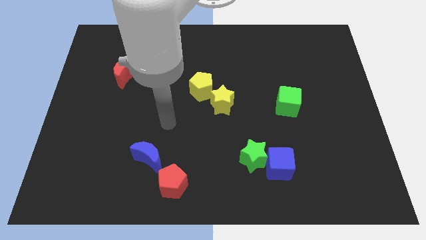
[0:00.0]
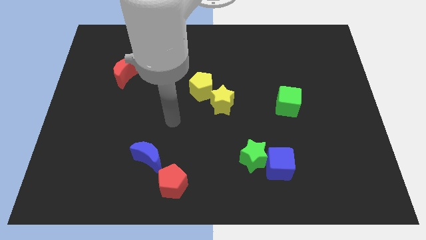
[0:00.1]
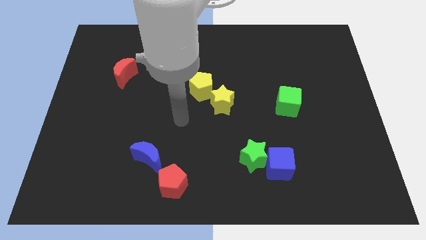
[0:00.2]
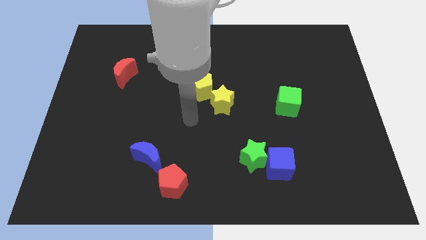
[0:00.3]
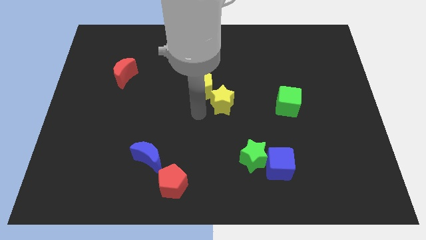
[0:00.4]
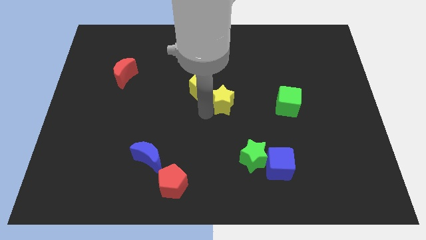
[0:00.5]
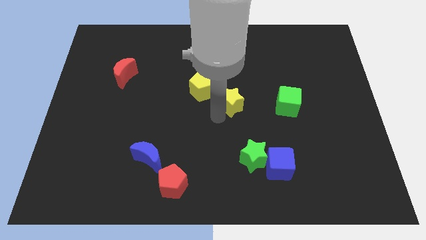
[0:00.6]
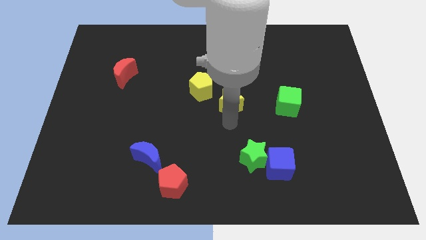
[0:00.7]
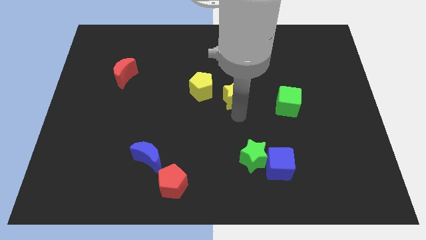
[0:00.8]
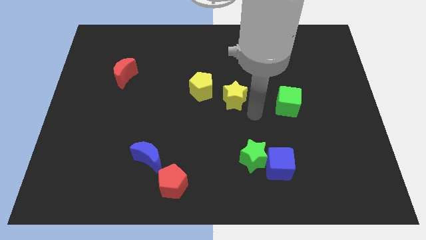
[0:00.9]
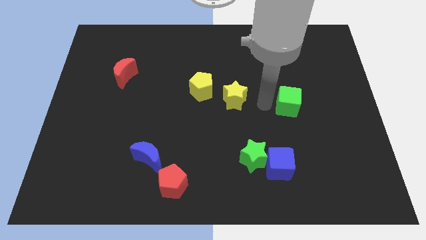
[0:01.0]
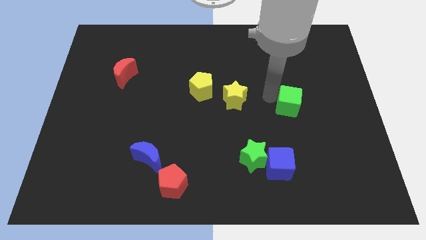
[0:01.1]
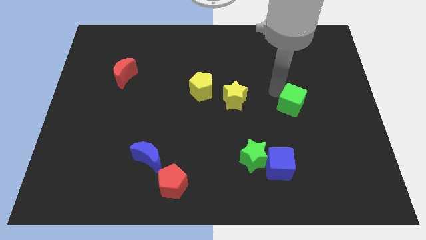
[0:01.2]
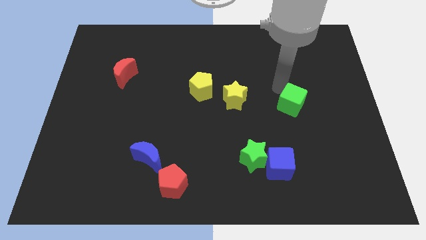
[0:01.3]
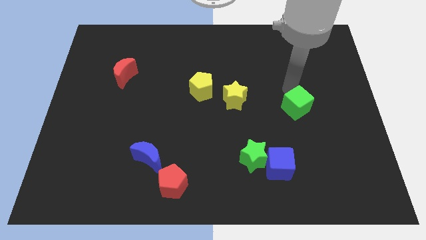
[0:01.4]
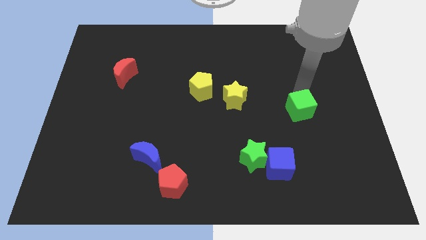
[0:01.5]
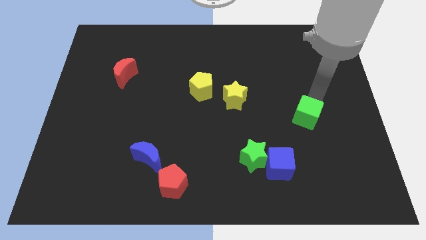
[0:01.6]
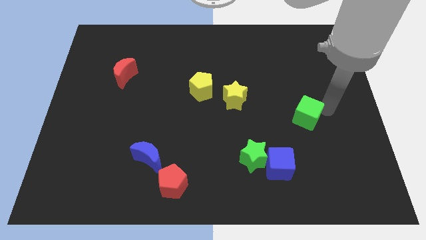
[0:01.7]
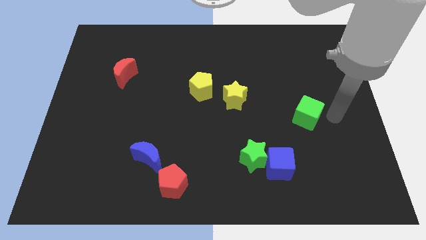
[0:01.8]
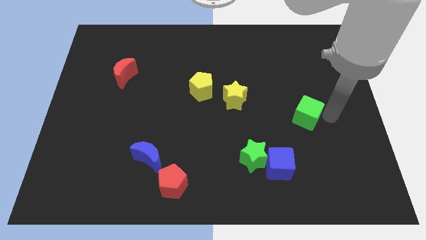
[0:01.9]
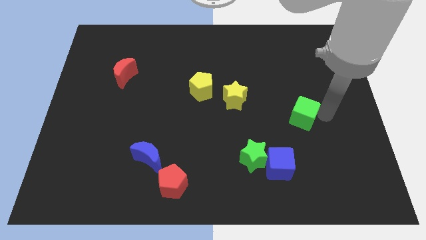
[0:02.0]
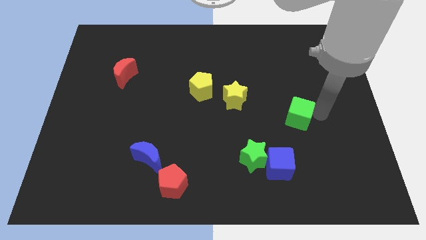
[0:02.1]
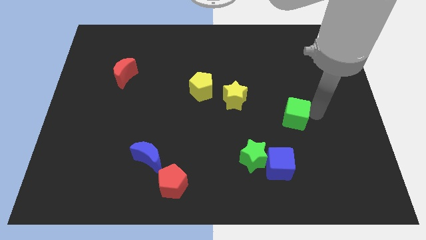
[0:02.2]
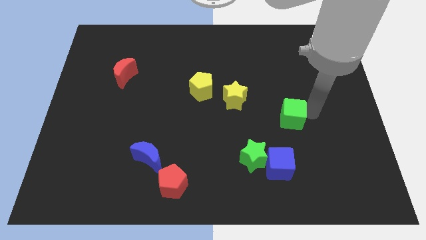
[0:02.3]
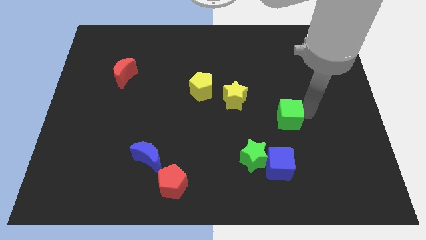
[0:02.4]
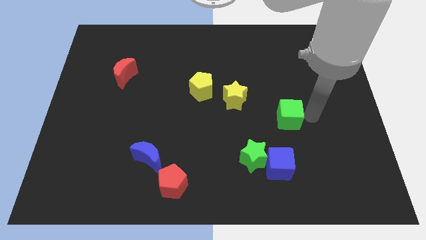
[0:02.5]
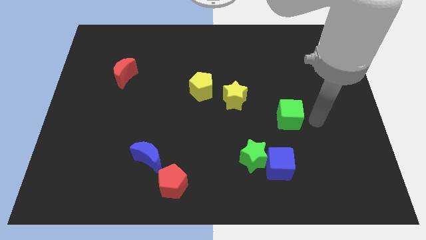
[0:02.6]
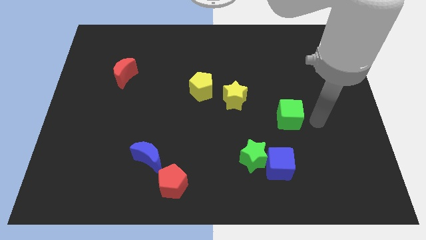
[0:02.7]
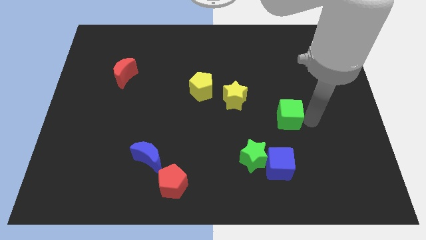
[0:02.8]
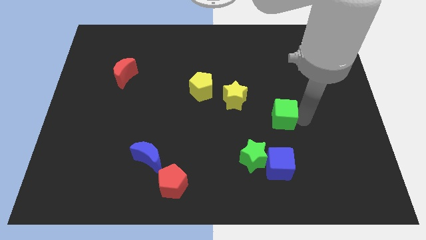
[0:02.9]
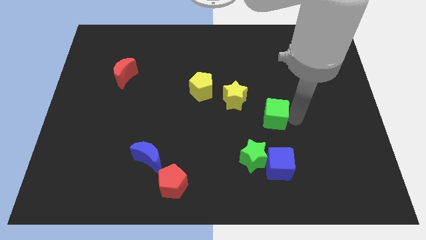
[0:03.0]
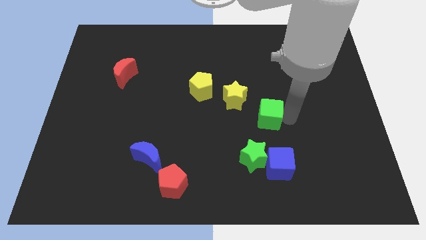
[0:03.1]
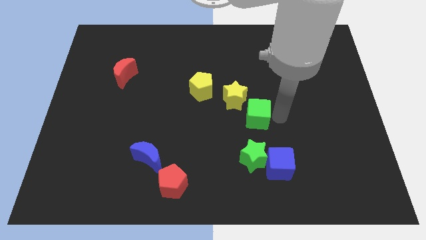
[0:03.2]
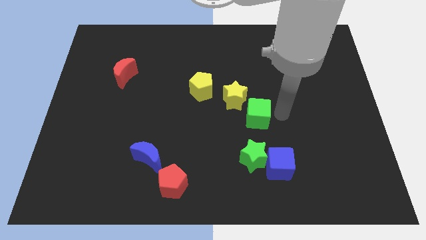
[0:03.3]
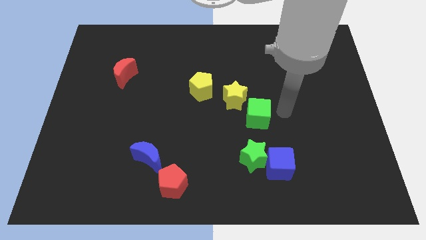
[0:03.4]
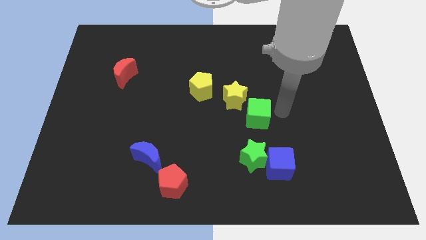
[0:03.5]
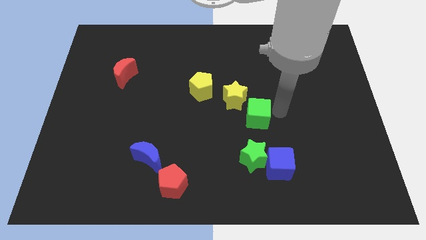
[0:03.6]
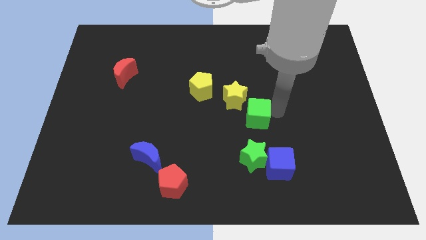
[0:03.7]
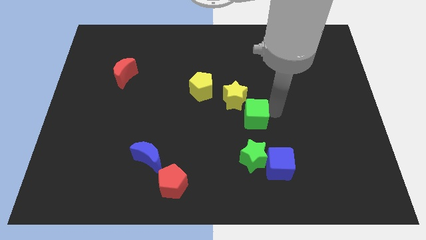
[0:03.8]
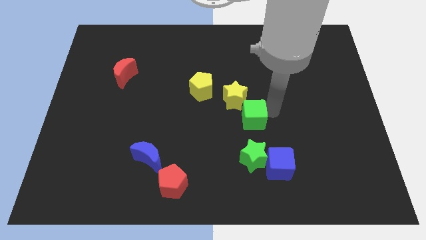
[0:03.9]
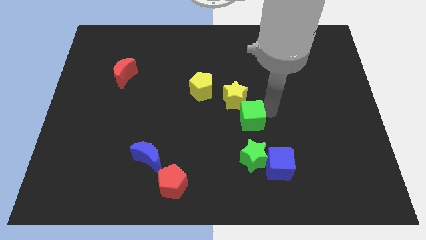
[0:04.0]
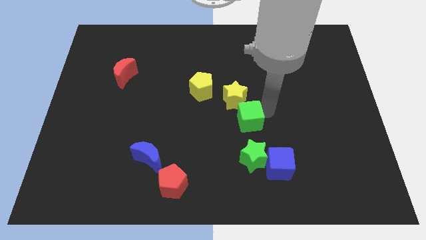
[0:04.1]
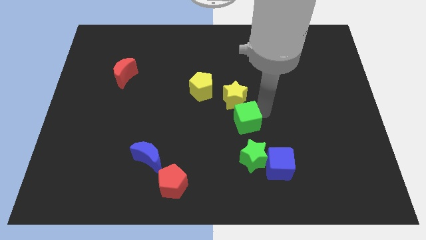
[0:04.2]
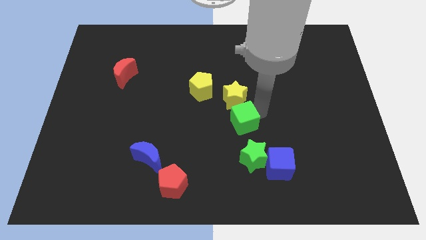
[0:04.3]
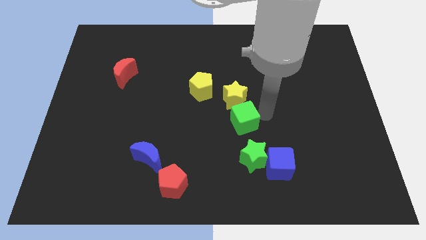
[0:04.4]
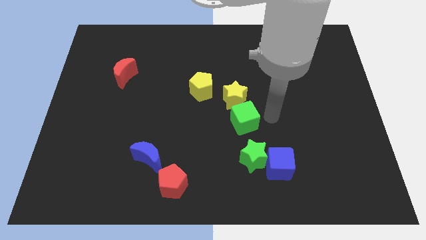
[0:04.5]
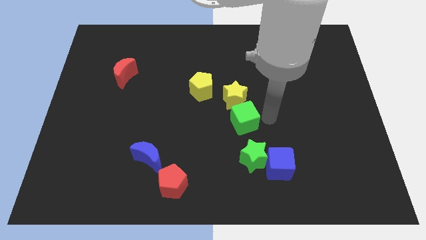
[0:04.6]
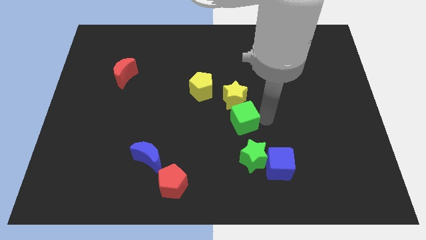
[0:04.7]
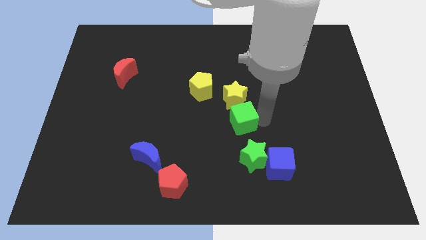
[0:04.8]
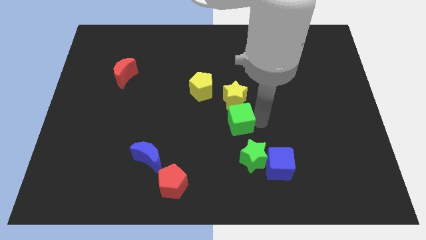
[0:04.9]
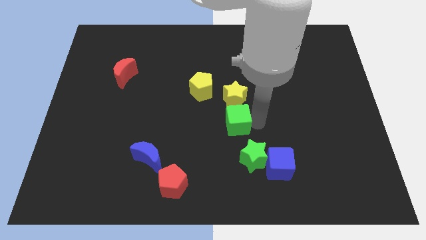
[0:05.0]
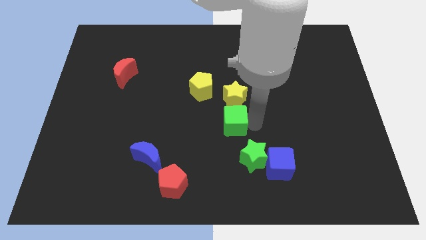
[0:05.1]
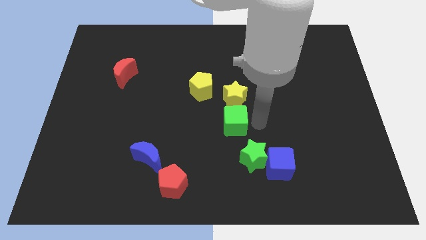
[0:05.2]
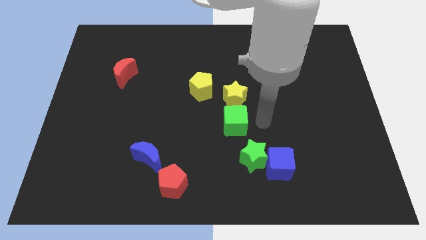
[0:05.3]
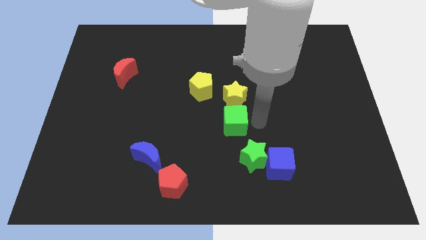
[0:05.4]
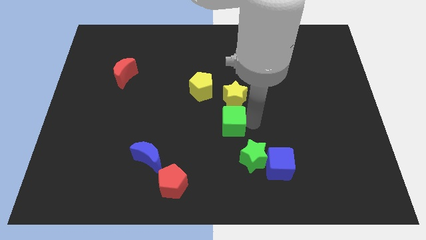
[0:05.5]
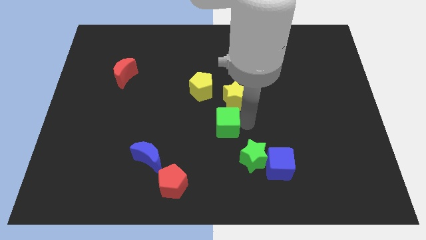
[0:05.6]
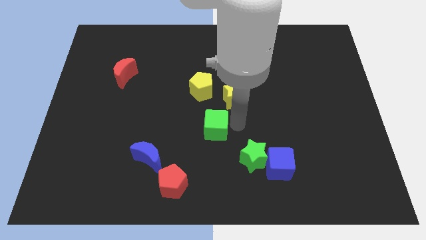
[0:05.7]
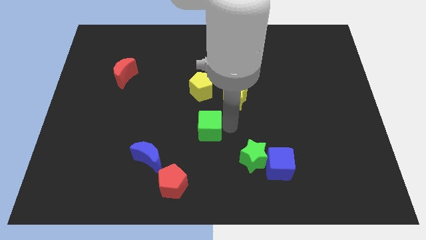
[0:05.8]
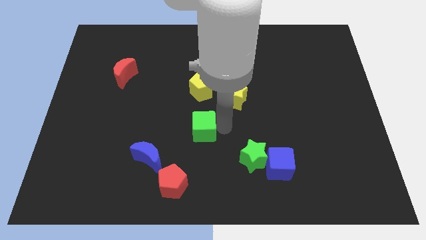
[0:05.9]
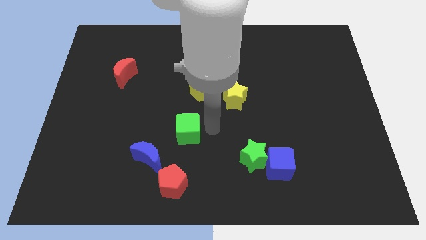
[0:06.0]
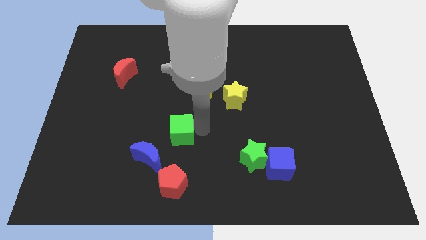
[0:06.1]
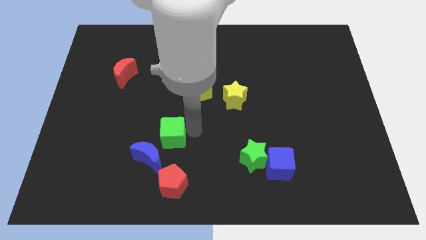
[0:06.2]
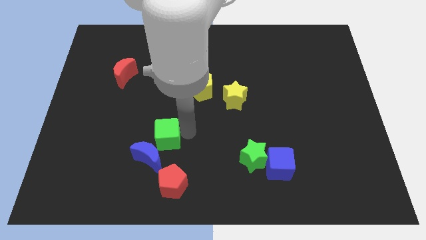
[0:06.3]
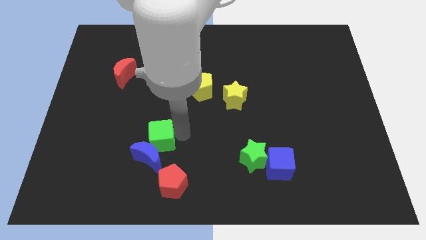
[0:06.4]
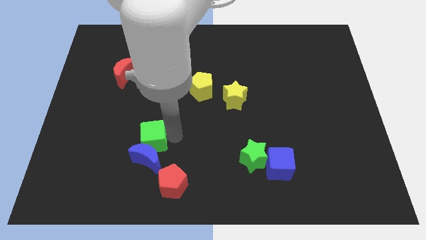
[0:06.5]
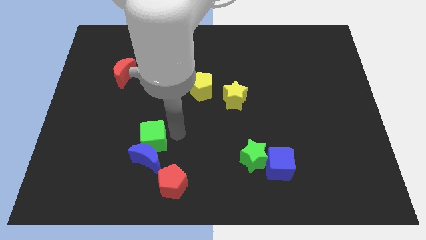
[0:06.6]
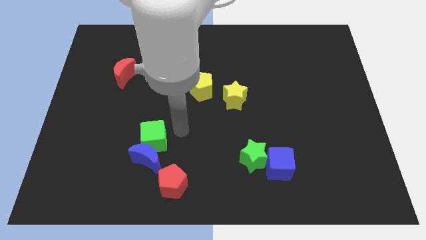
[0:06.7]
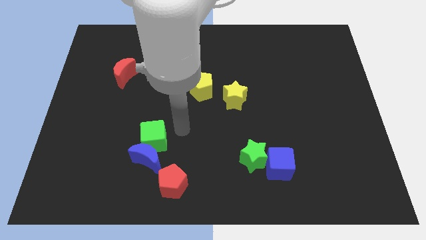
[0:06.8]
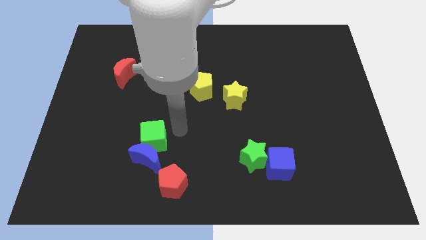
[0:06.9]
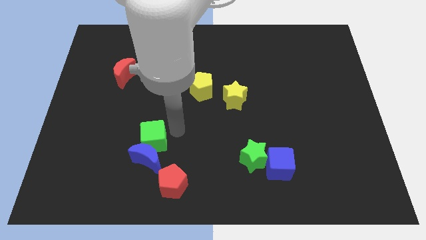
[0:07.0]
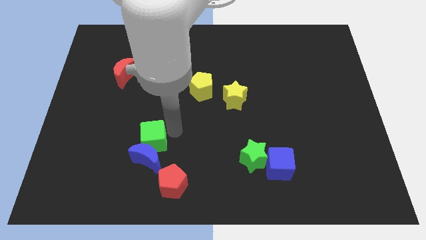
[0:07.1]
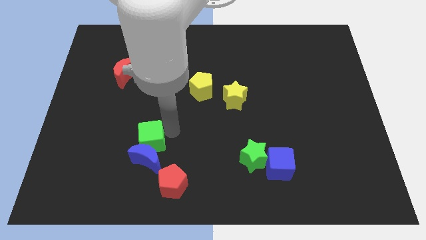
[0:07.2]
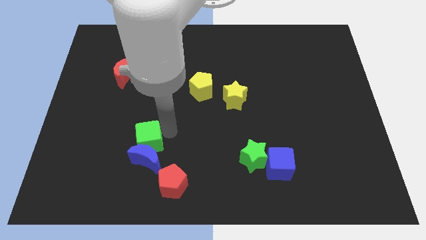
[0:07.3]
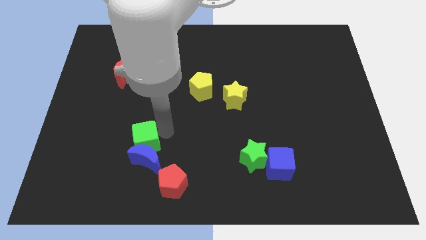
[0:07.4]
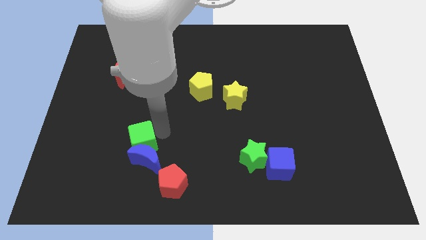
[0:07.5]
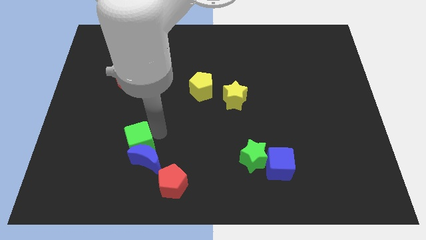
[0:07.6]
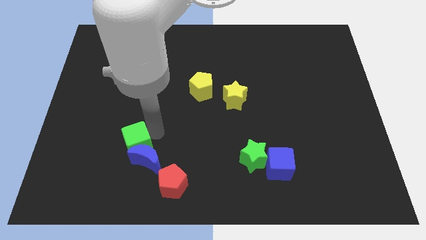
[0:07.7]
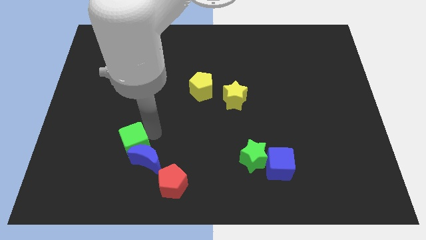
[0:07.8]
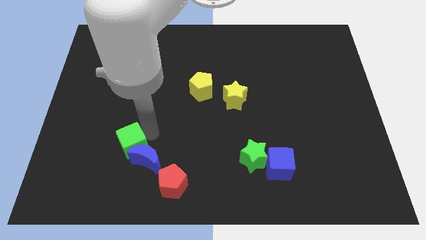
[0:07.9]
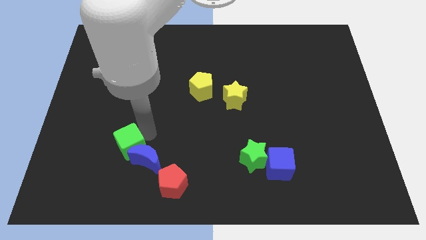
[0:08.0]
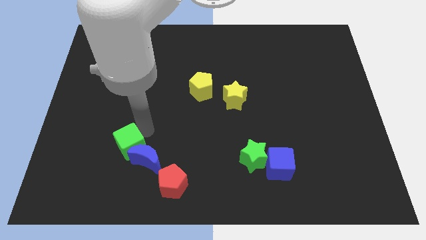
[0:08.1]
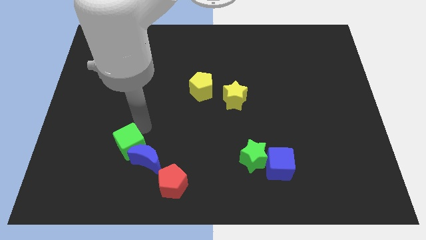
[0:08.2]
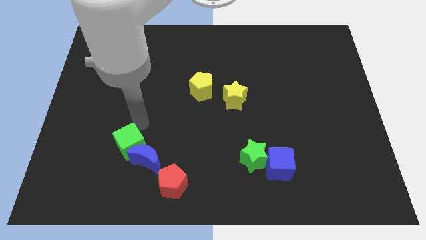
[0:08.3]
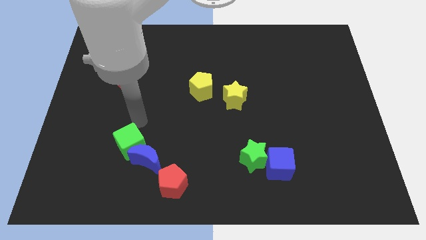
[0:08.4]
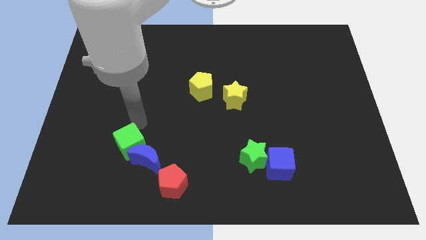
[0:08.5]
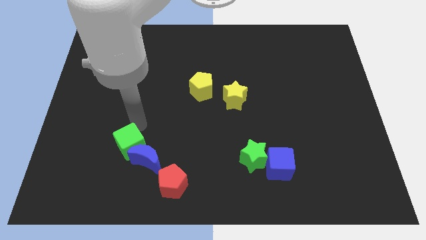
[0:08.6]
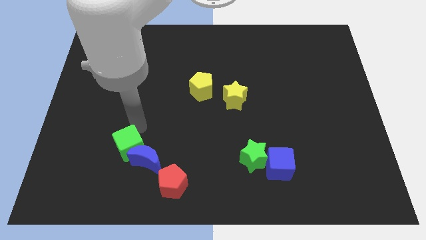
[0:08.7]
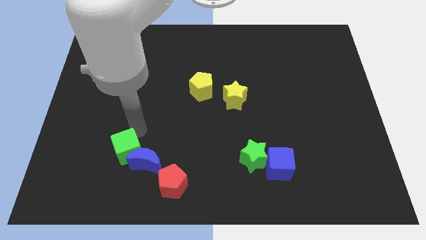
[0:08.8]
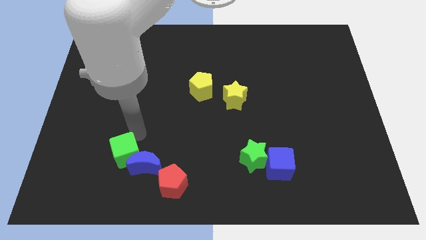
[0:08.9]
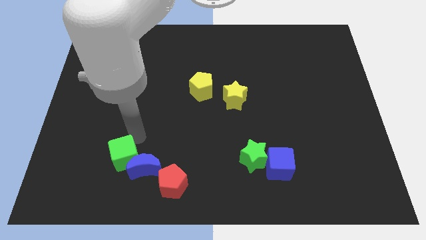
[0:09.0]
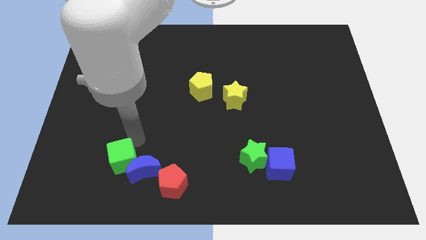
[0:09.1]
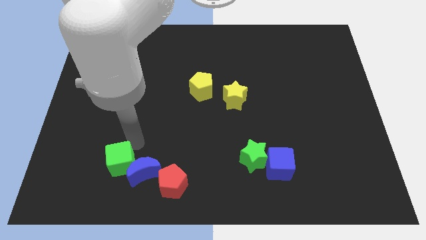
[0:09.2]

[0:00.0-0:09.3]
slide the green cube left of the red pentagon
